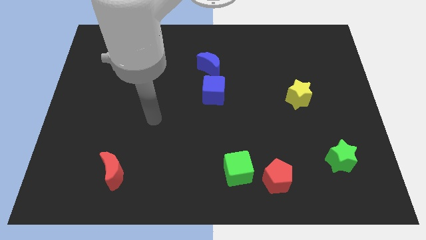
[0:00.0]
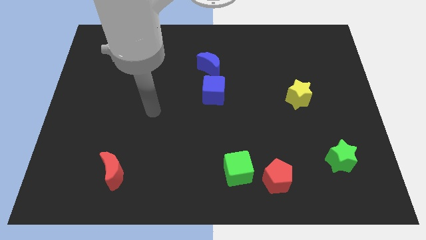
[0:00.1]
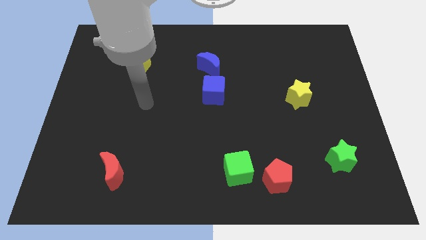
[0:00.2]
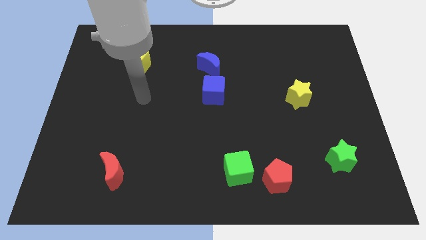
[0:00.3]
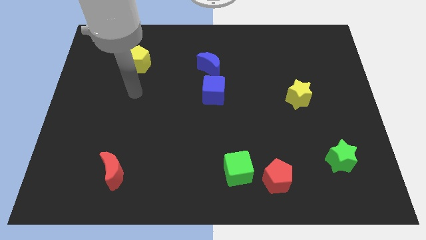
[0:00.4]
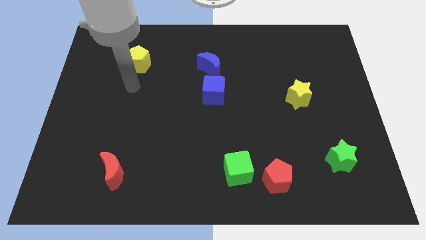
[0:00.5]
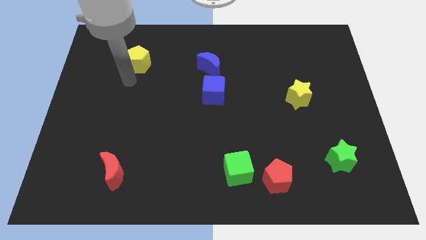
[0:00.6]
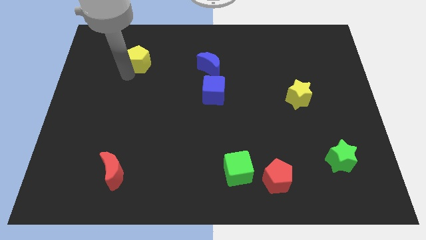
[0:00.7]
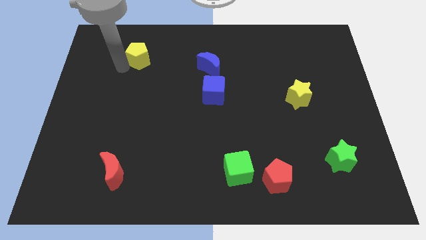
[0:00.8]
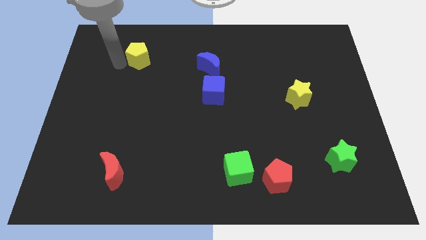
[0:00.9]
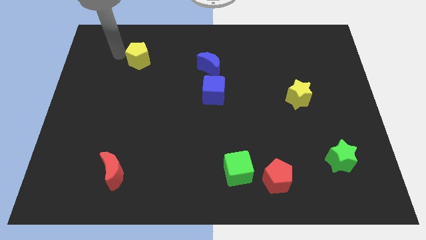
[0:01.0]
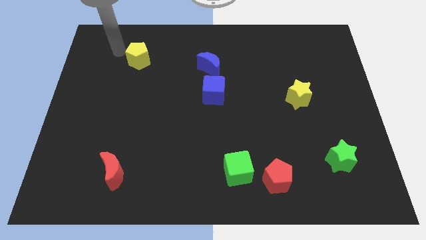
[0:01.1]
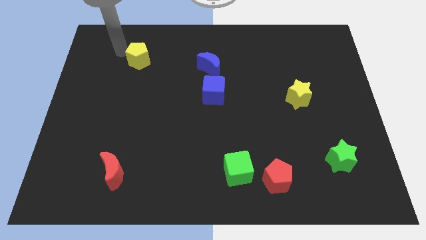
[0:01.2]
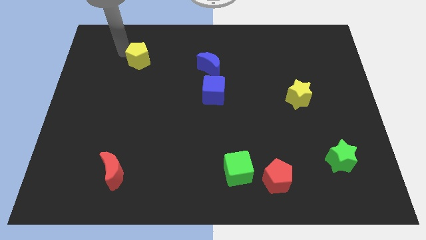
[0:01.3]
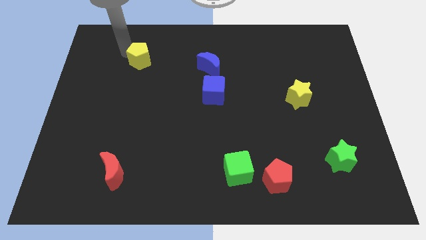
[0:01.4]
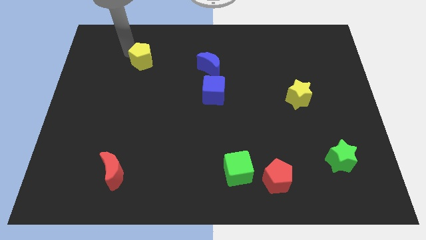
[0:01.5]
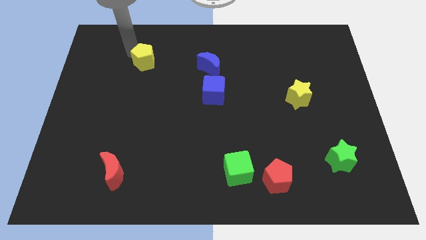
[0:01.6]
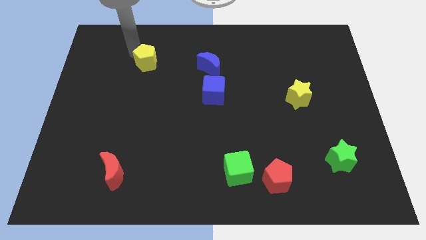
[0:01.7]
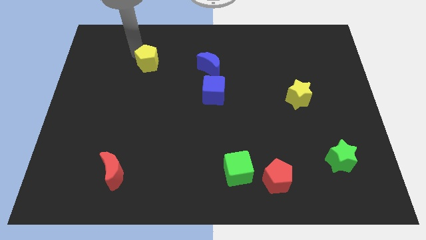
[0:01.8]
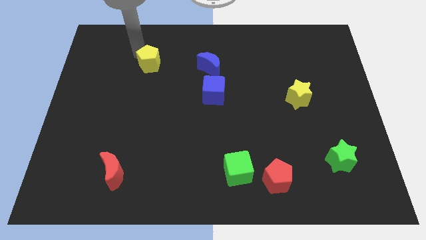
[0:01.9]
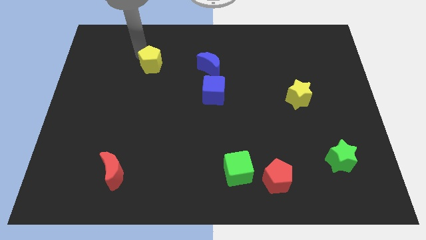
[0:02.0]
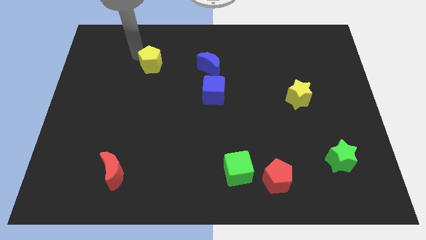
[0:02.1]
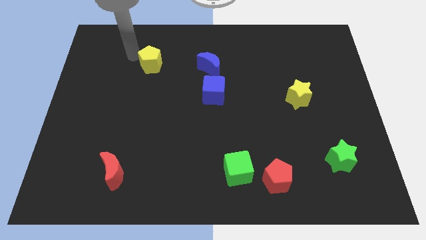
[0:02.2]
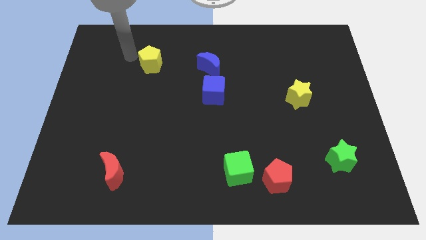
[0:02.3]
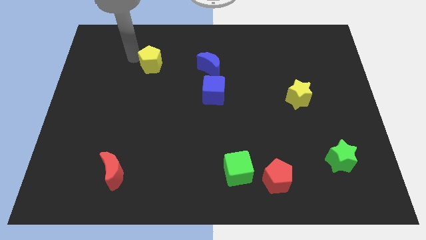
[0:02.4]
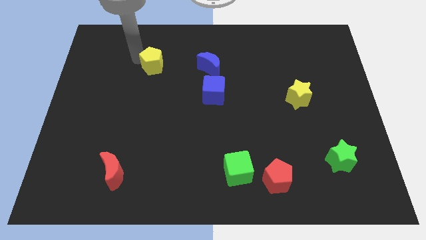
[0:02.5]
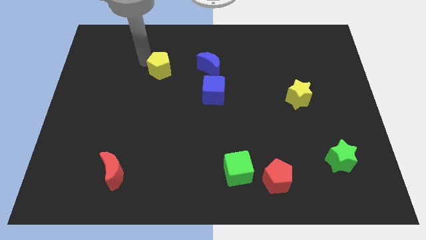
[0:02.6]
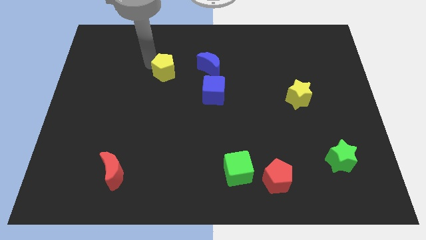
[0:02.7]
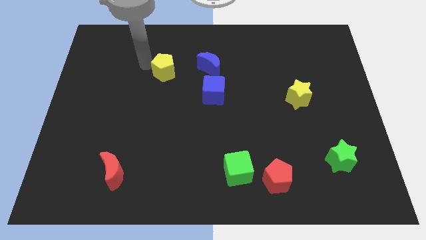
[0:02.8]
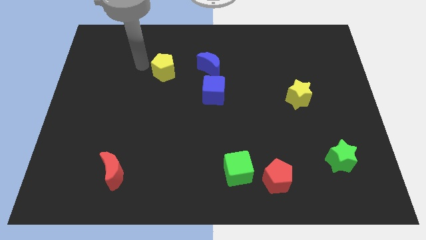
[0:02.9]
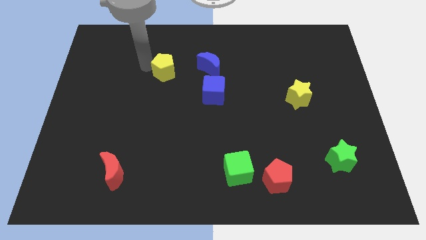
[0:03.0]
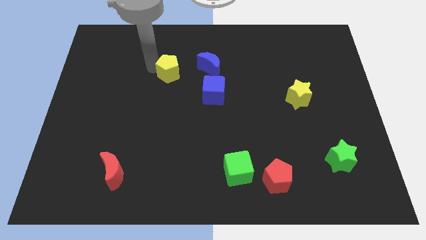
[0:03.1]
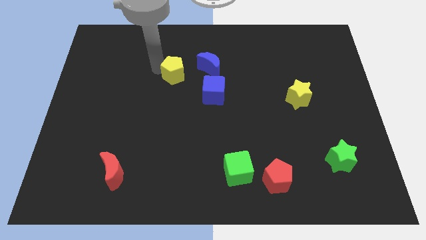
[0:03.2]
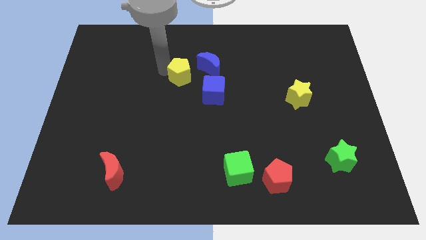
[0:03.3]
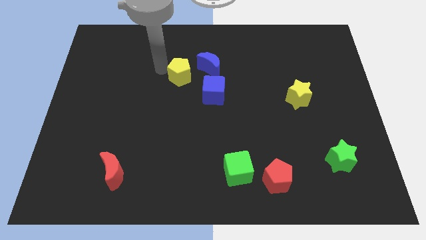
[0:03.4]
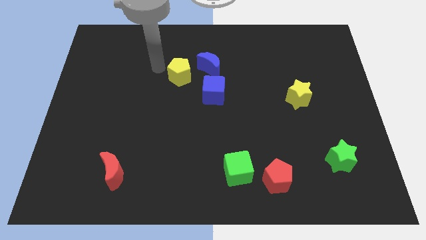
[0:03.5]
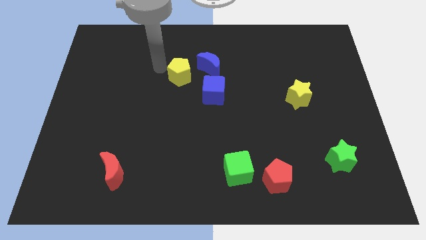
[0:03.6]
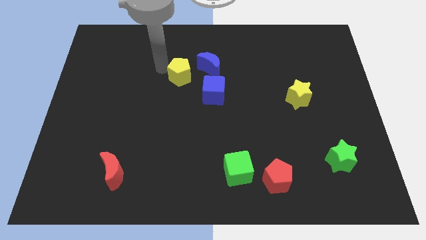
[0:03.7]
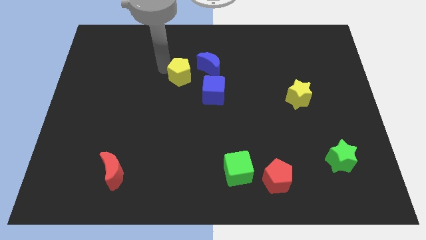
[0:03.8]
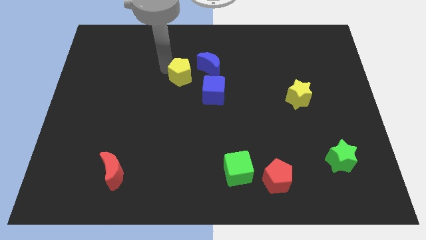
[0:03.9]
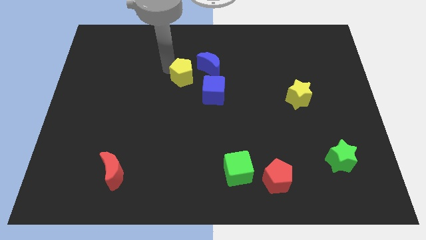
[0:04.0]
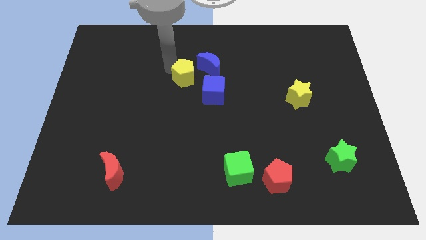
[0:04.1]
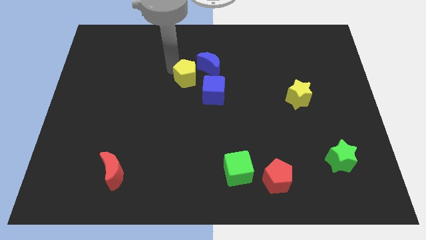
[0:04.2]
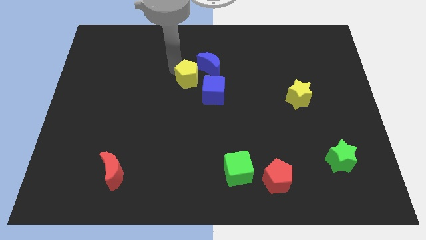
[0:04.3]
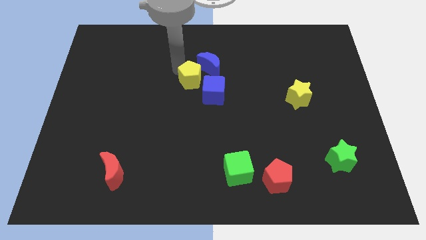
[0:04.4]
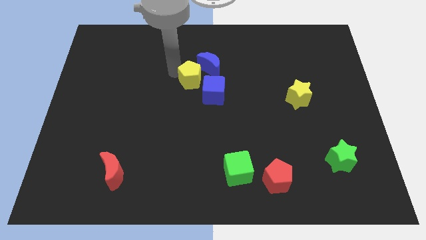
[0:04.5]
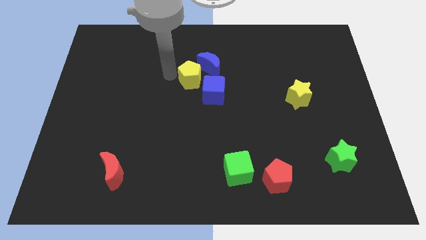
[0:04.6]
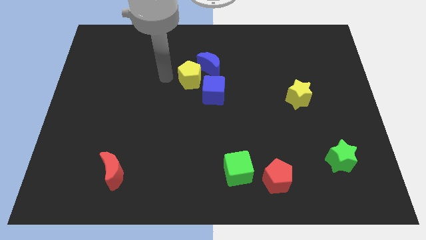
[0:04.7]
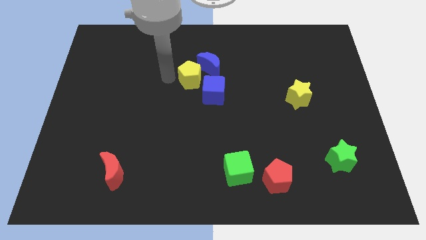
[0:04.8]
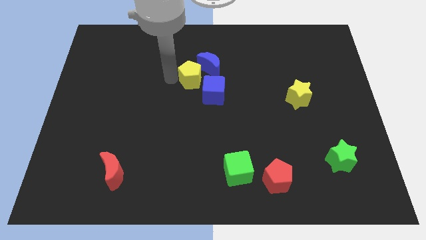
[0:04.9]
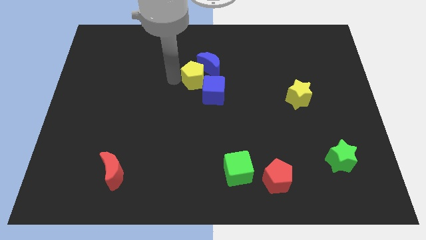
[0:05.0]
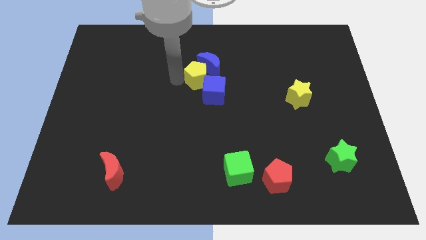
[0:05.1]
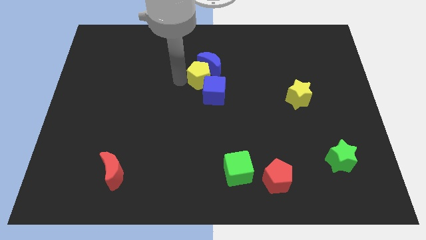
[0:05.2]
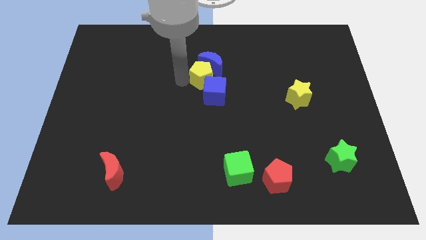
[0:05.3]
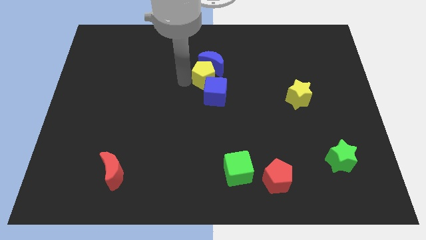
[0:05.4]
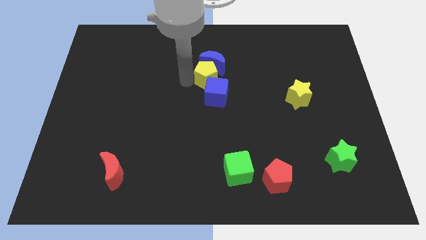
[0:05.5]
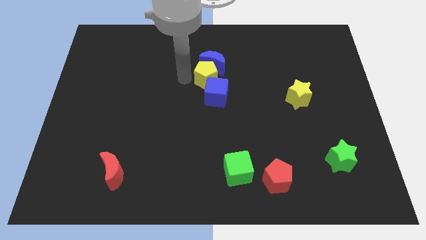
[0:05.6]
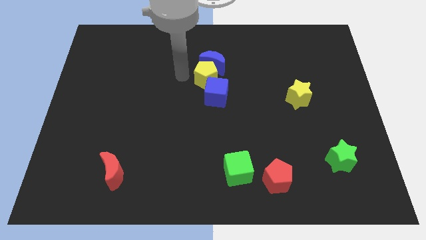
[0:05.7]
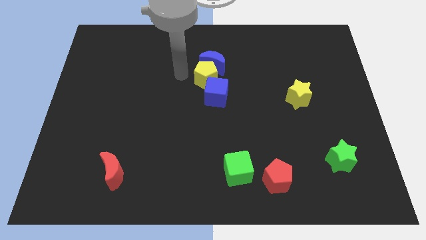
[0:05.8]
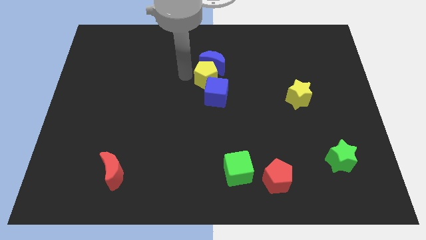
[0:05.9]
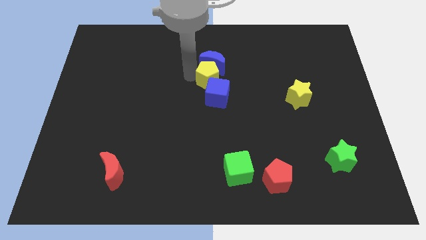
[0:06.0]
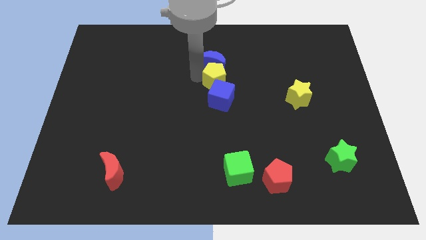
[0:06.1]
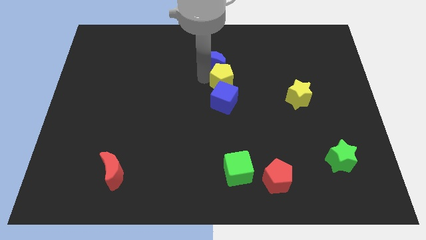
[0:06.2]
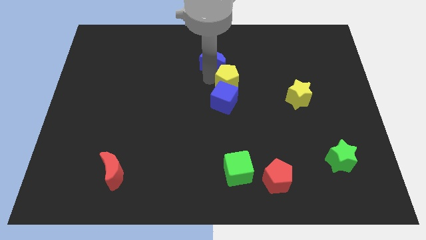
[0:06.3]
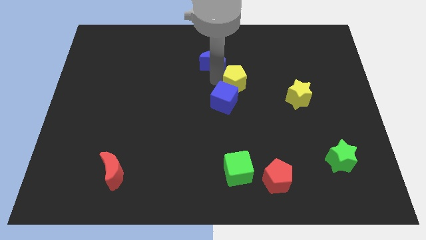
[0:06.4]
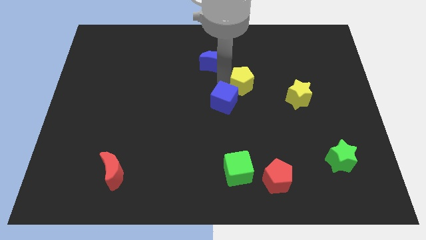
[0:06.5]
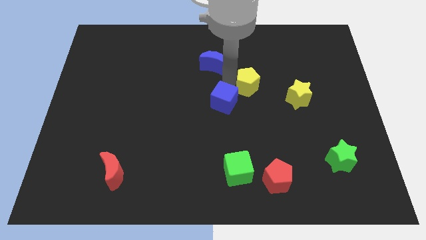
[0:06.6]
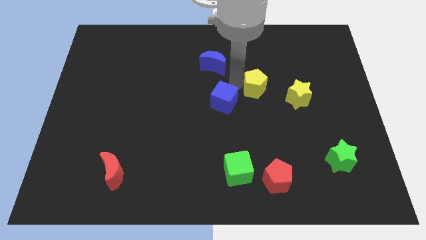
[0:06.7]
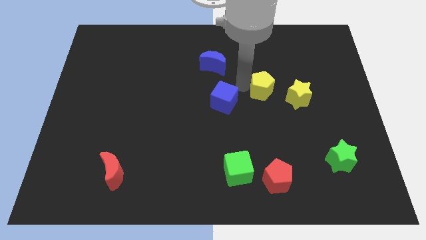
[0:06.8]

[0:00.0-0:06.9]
move the yellow pentagon diagonally up and to the left of the yellow star
